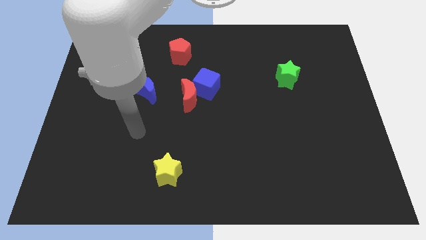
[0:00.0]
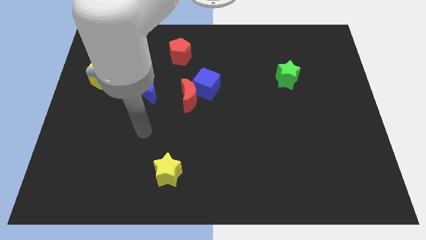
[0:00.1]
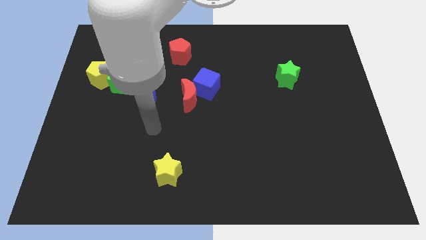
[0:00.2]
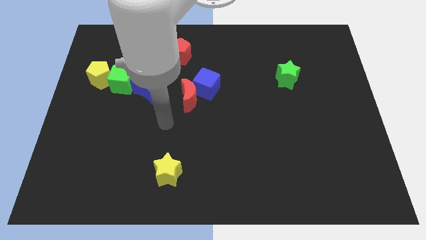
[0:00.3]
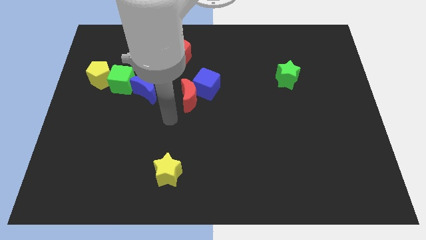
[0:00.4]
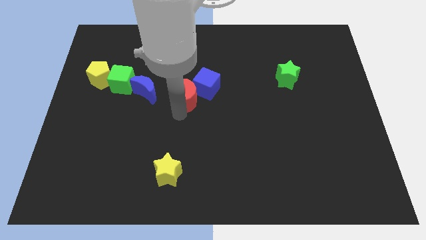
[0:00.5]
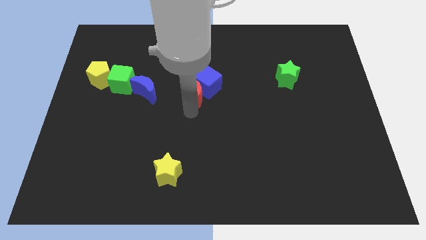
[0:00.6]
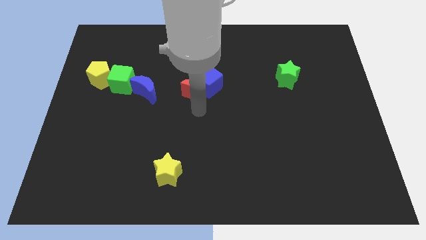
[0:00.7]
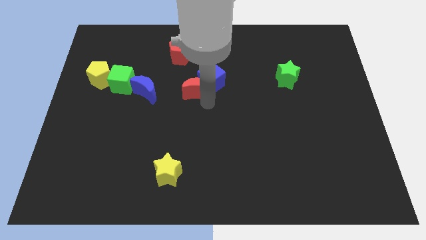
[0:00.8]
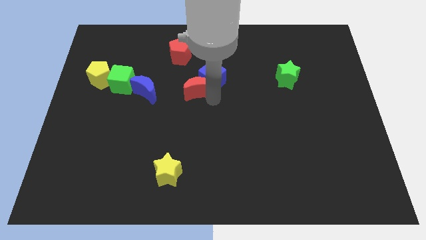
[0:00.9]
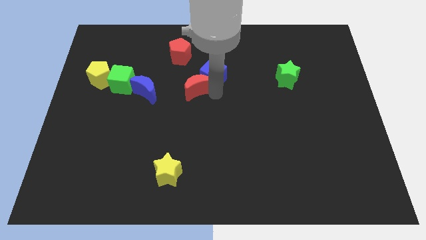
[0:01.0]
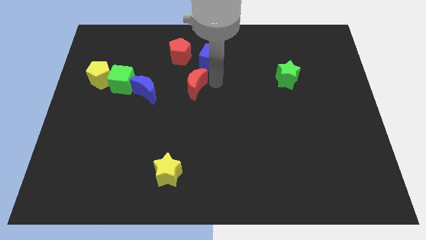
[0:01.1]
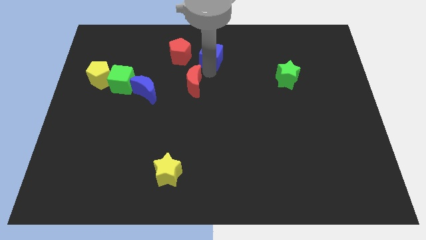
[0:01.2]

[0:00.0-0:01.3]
move the red moon away from the blue cube

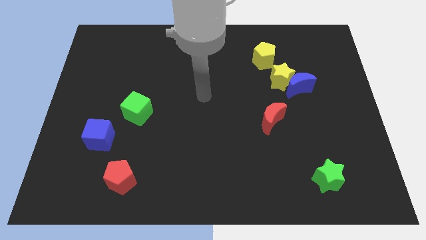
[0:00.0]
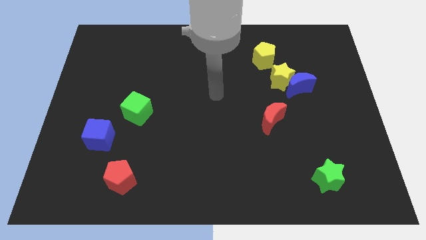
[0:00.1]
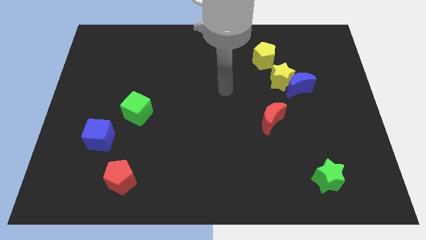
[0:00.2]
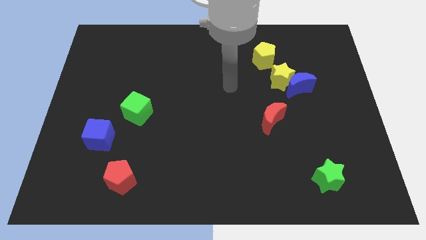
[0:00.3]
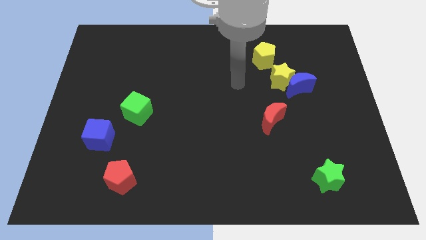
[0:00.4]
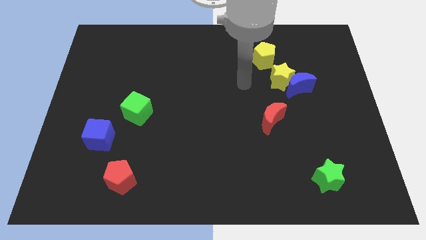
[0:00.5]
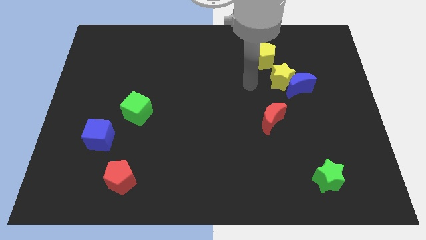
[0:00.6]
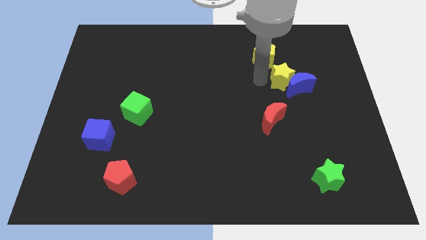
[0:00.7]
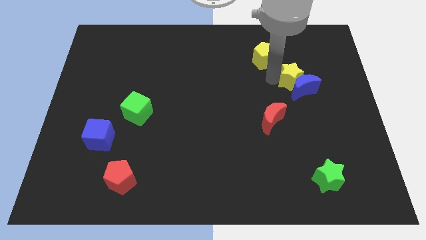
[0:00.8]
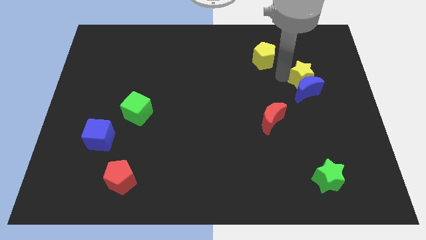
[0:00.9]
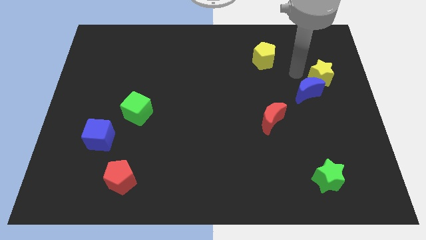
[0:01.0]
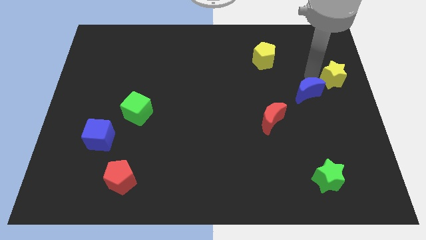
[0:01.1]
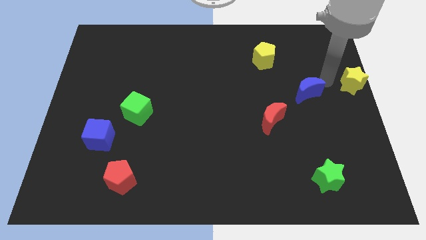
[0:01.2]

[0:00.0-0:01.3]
pull the blue moon apart from the yellow star

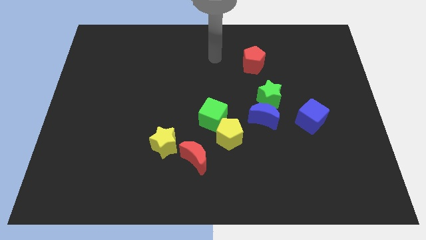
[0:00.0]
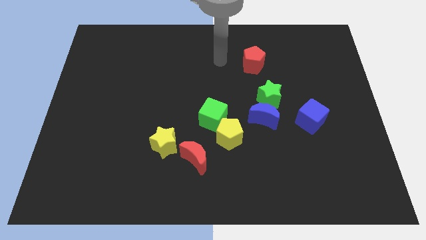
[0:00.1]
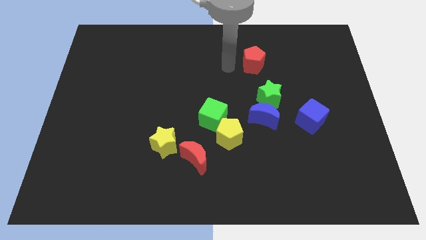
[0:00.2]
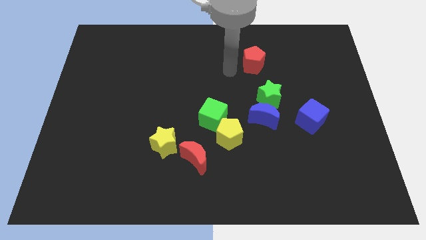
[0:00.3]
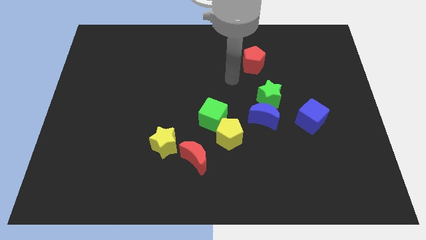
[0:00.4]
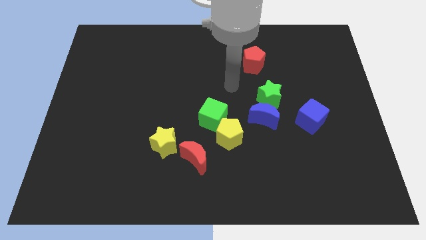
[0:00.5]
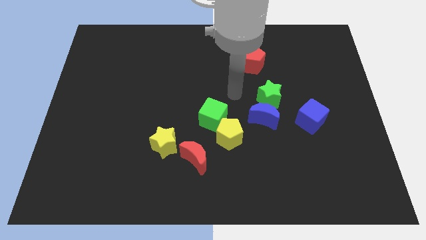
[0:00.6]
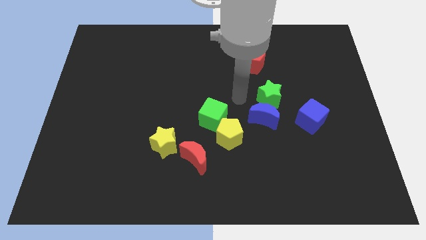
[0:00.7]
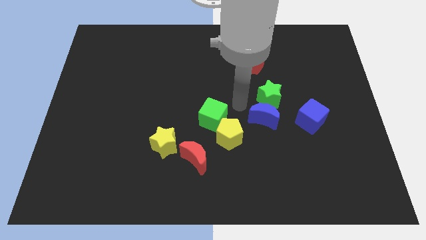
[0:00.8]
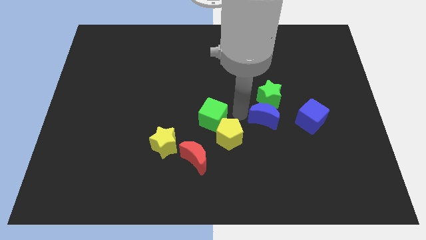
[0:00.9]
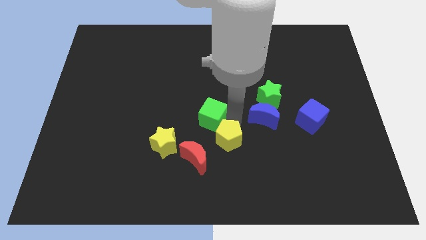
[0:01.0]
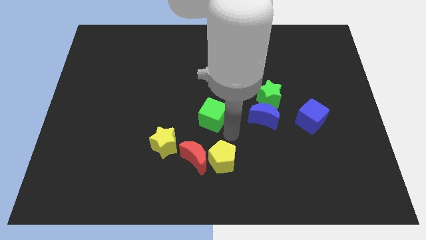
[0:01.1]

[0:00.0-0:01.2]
move the green cube away from the yellow pentagon

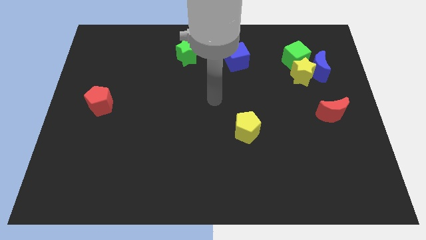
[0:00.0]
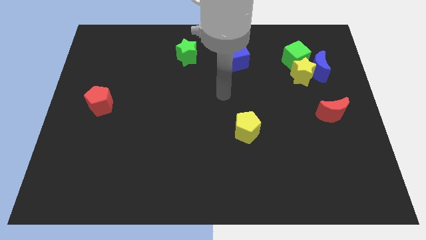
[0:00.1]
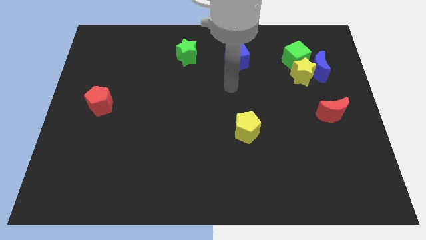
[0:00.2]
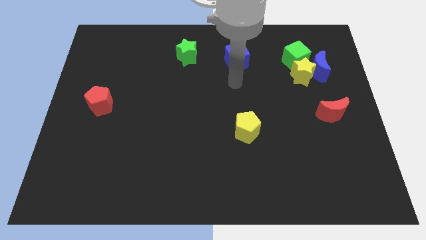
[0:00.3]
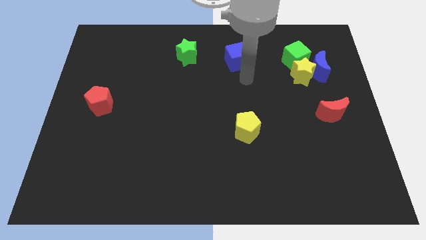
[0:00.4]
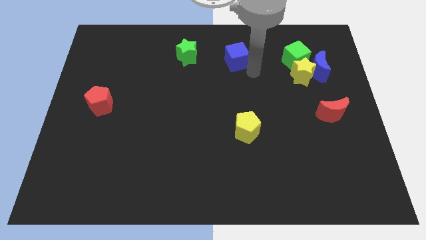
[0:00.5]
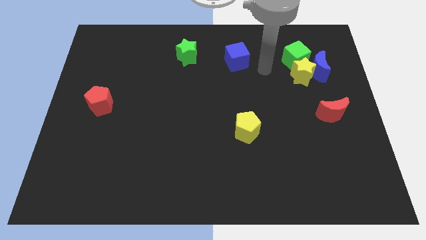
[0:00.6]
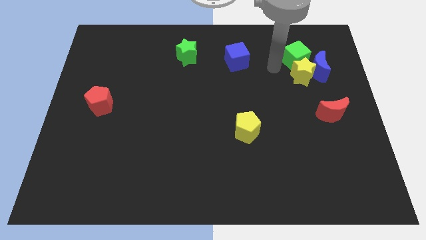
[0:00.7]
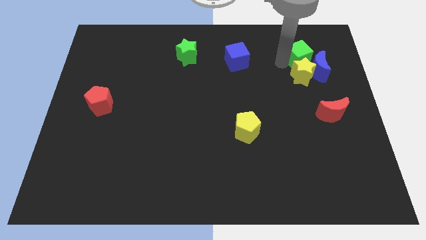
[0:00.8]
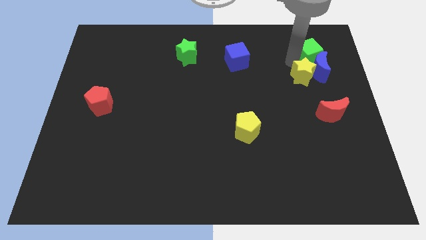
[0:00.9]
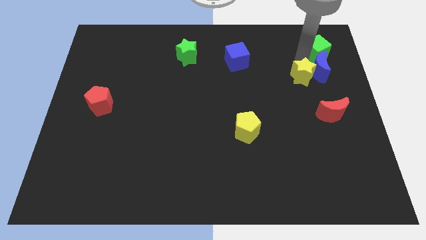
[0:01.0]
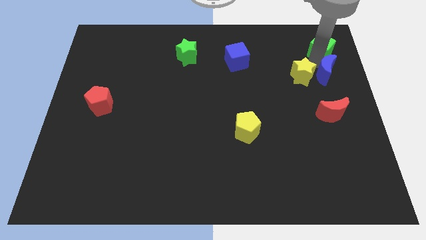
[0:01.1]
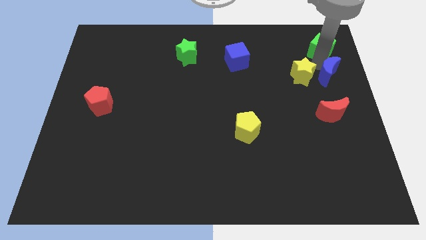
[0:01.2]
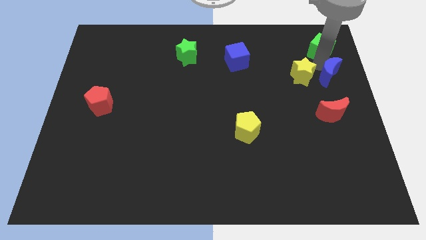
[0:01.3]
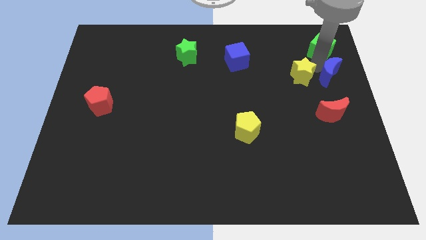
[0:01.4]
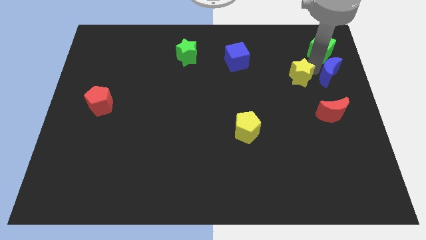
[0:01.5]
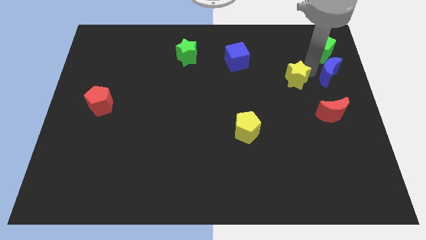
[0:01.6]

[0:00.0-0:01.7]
pull the yellow star apart from the blue moon and green cube

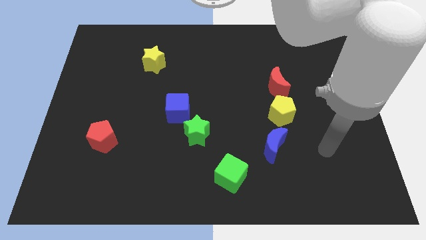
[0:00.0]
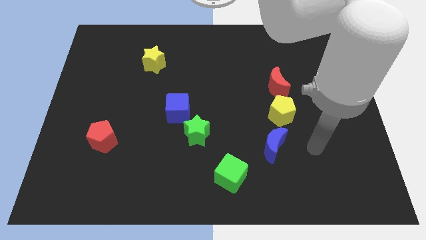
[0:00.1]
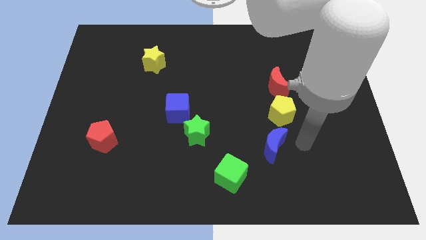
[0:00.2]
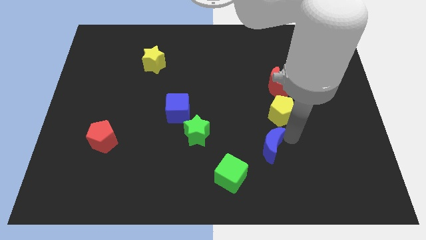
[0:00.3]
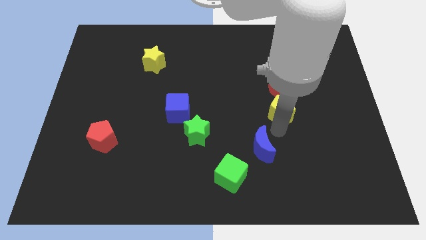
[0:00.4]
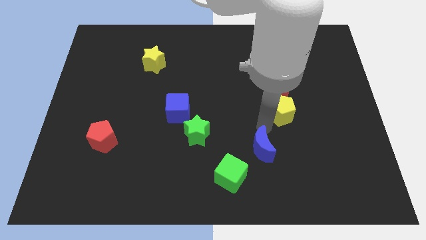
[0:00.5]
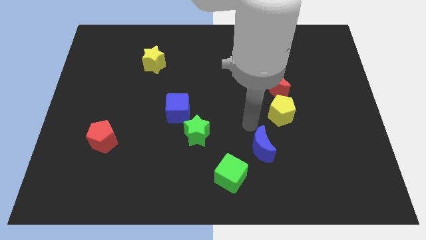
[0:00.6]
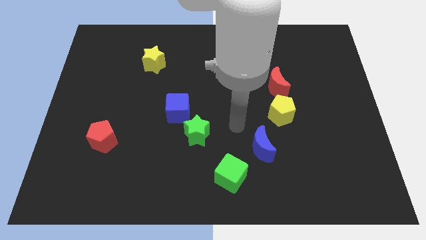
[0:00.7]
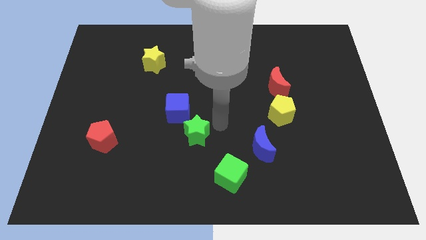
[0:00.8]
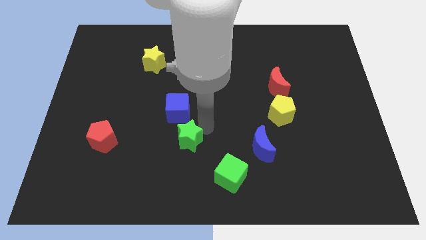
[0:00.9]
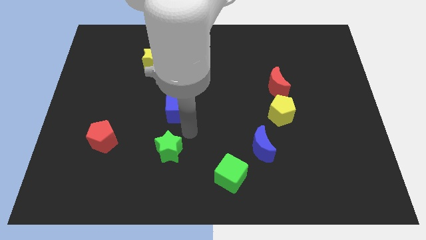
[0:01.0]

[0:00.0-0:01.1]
pull the blue cube apart from the green star

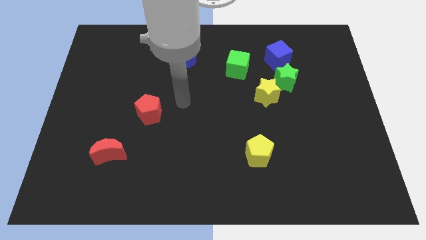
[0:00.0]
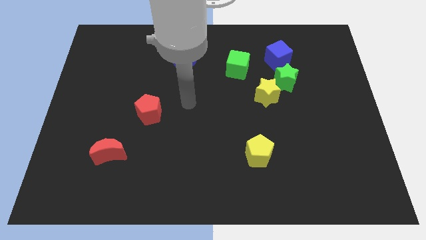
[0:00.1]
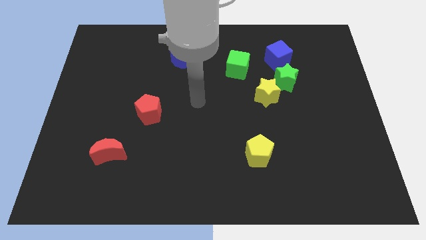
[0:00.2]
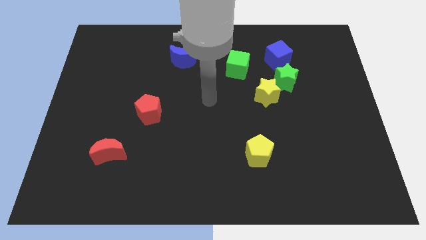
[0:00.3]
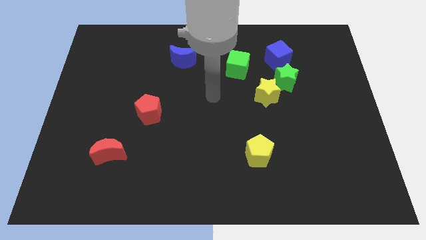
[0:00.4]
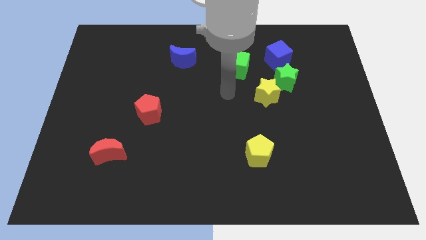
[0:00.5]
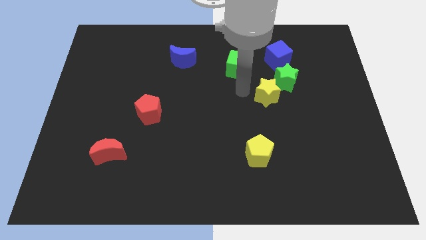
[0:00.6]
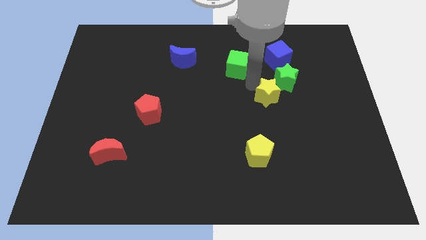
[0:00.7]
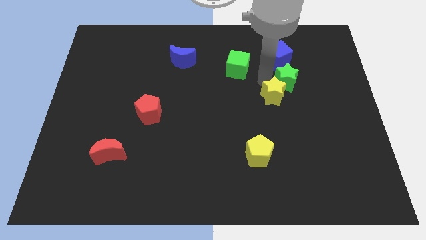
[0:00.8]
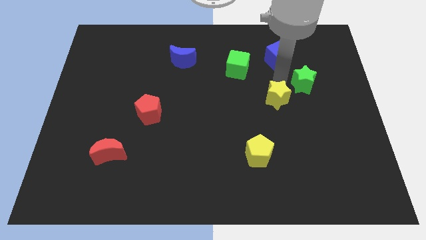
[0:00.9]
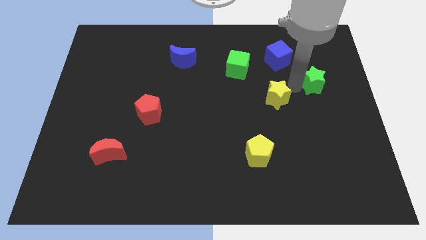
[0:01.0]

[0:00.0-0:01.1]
move the yellow star away from the green star

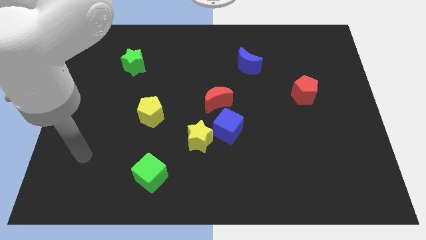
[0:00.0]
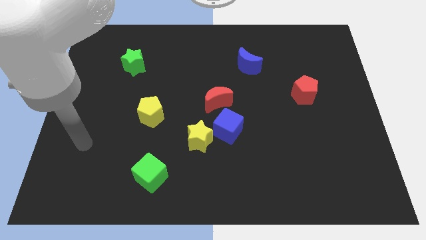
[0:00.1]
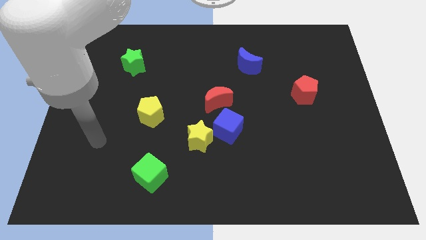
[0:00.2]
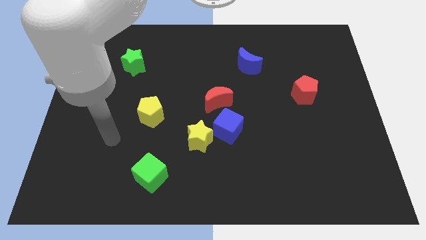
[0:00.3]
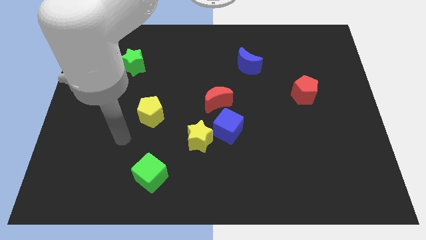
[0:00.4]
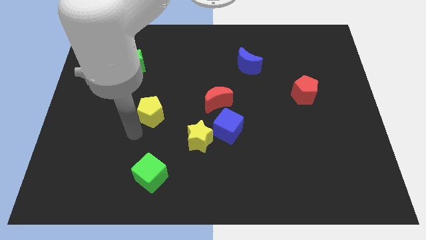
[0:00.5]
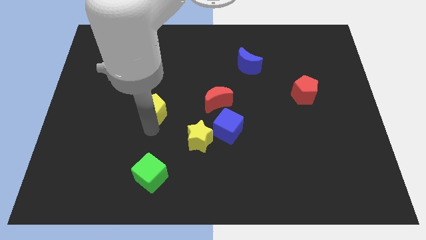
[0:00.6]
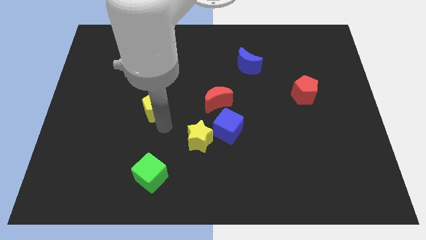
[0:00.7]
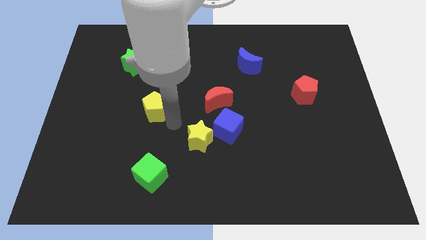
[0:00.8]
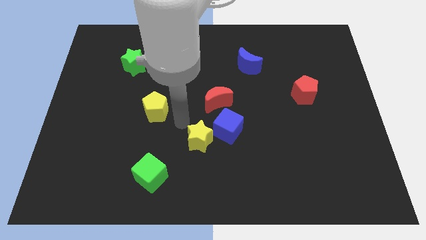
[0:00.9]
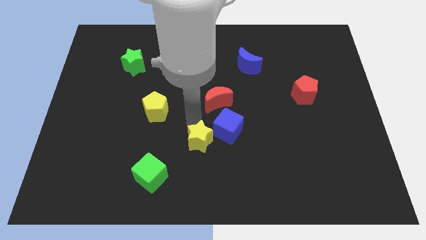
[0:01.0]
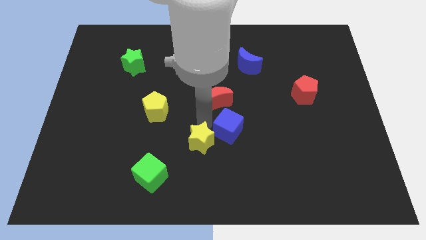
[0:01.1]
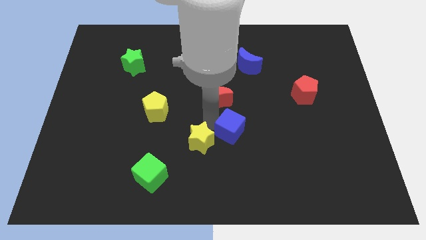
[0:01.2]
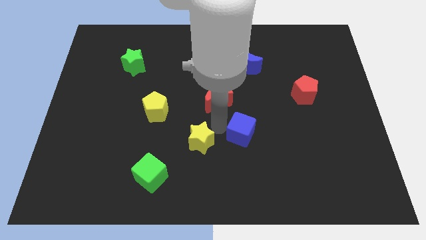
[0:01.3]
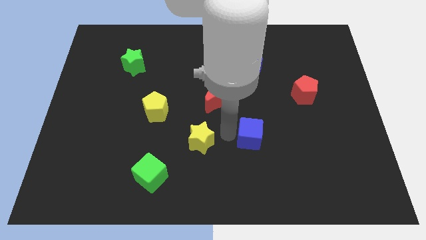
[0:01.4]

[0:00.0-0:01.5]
separate the yellow star from the blue cube

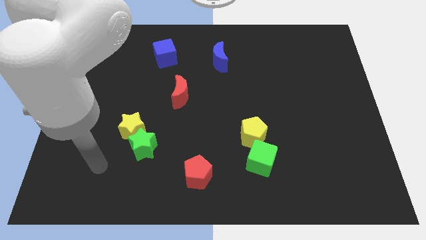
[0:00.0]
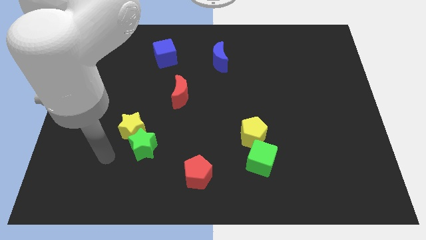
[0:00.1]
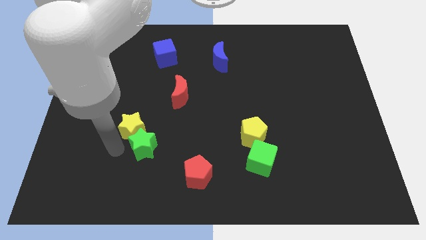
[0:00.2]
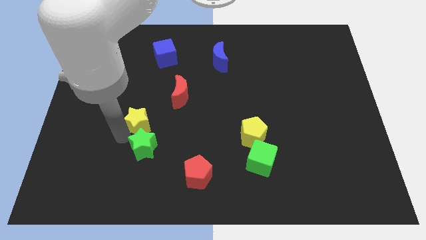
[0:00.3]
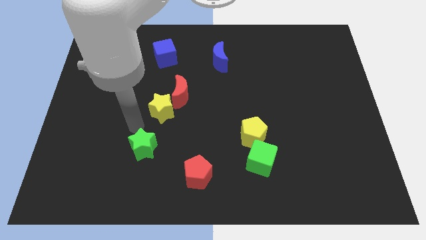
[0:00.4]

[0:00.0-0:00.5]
pull the green star apart from the yellow star
